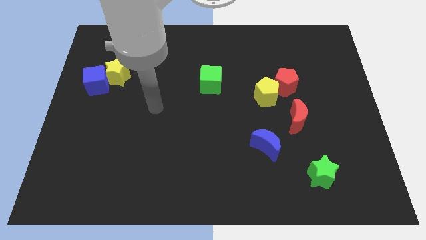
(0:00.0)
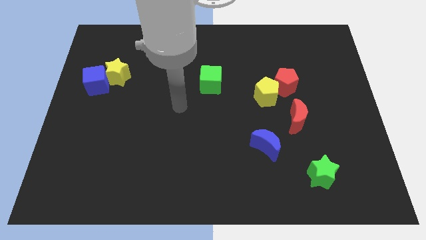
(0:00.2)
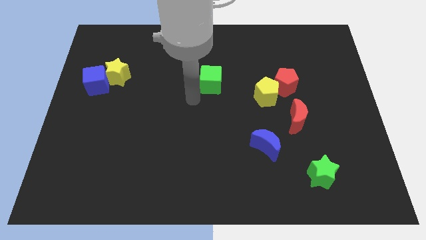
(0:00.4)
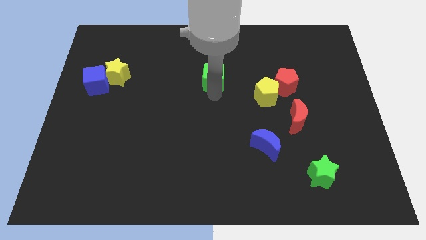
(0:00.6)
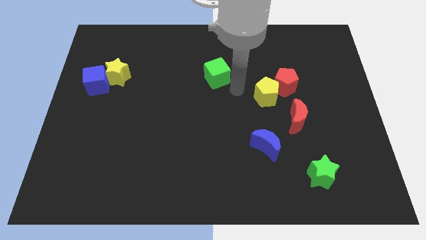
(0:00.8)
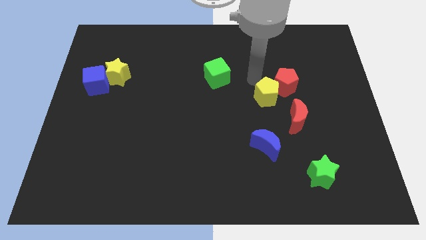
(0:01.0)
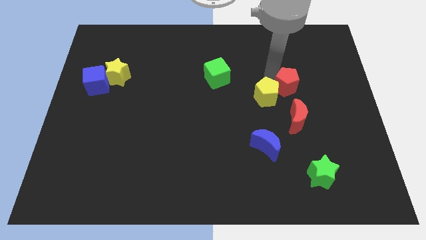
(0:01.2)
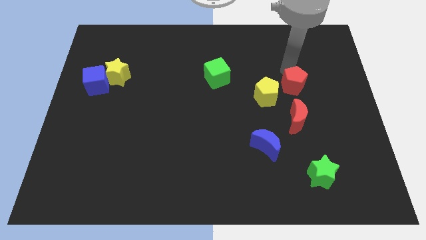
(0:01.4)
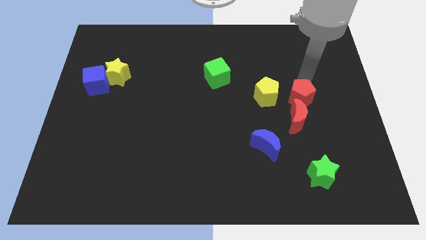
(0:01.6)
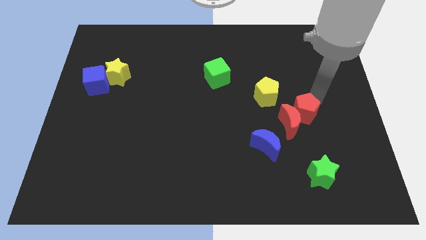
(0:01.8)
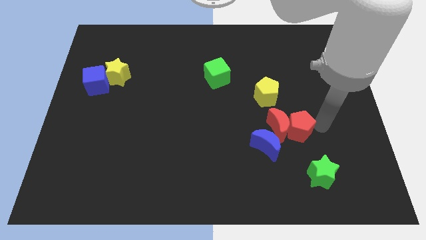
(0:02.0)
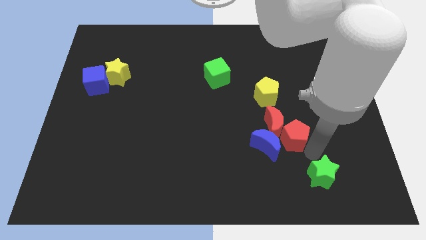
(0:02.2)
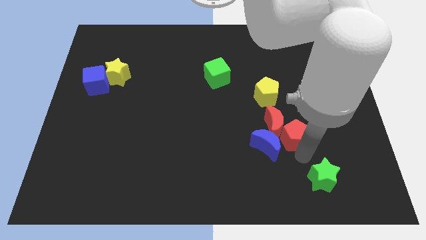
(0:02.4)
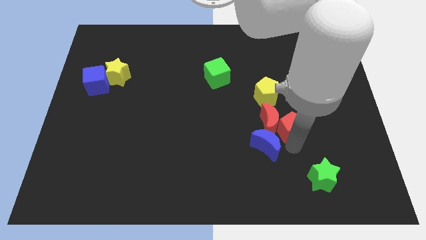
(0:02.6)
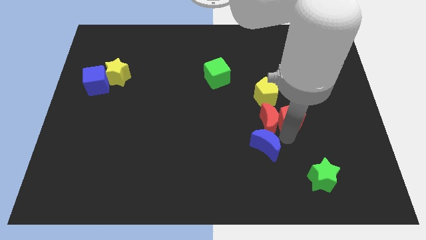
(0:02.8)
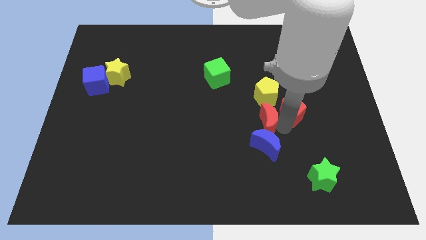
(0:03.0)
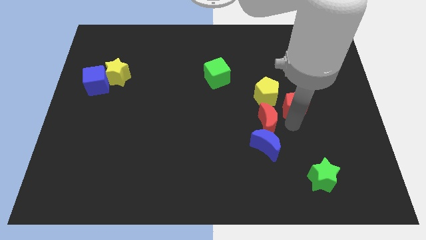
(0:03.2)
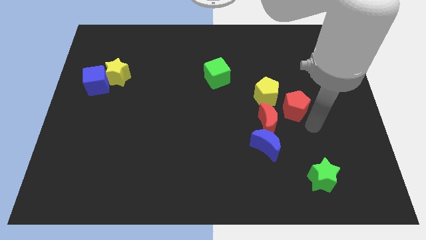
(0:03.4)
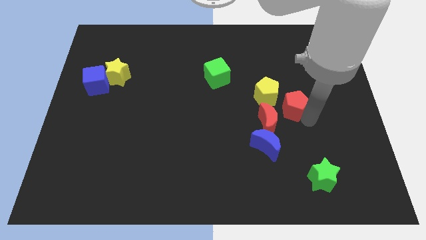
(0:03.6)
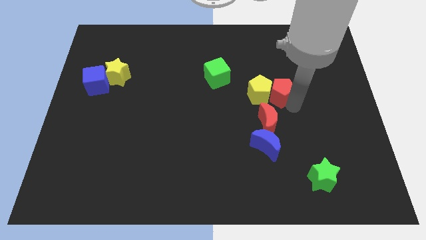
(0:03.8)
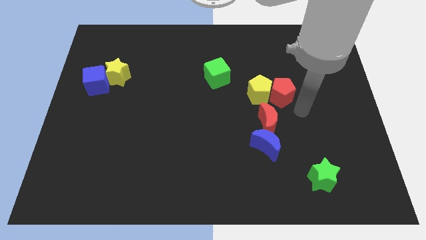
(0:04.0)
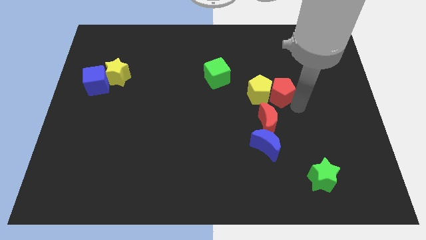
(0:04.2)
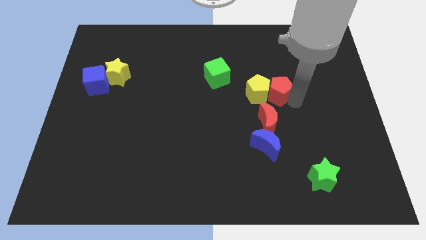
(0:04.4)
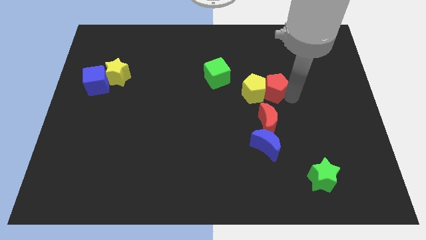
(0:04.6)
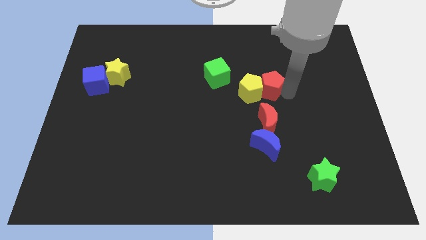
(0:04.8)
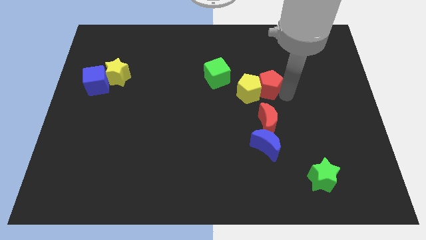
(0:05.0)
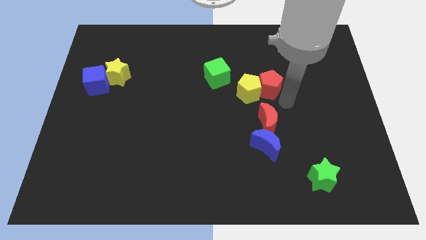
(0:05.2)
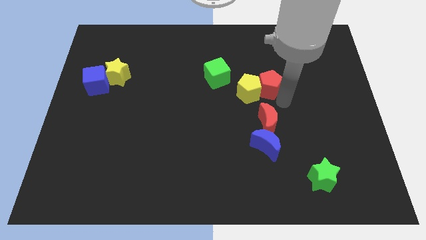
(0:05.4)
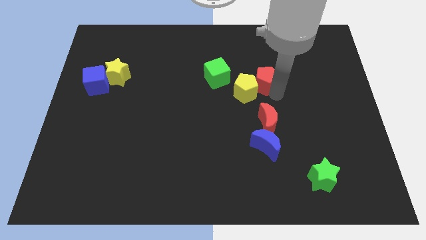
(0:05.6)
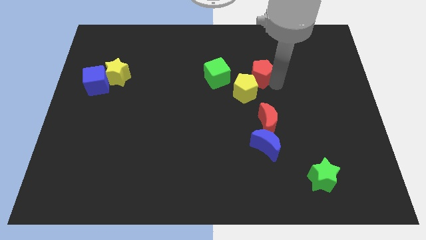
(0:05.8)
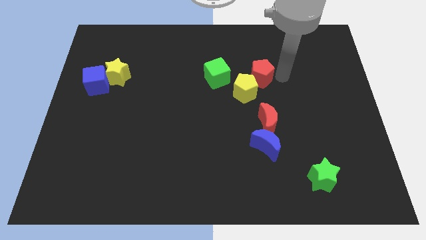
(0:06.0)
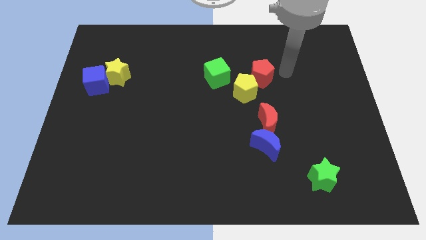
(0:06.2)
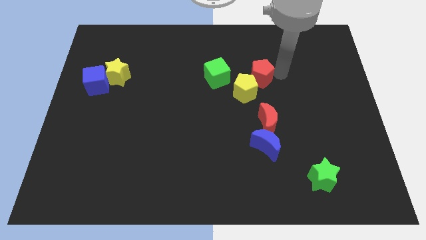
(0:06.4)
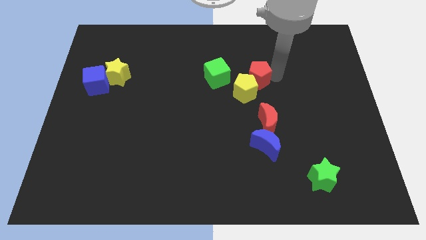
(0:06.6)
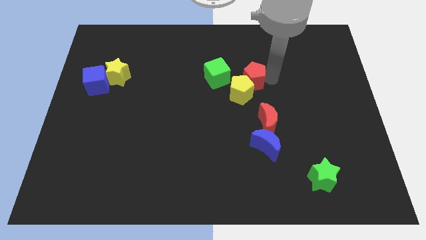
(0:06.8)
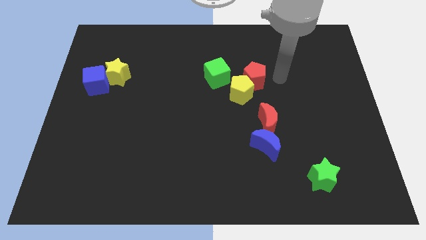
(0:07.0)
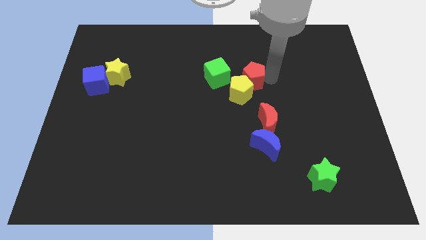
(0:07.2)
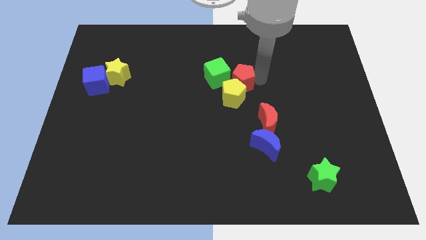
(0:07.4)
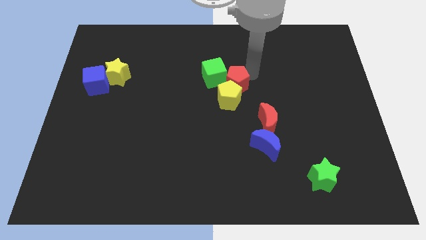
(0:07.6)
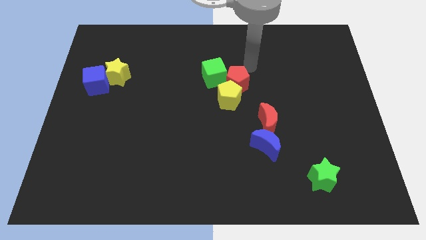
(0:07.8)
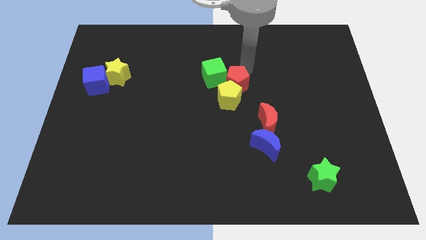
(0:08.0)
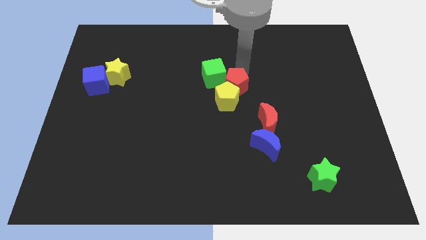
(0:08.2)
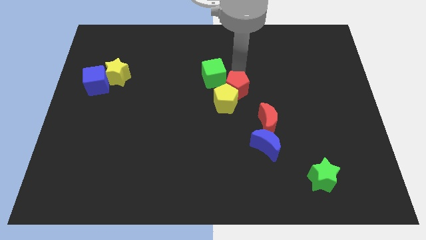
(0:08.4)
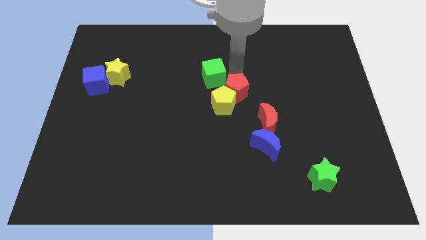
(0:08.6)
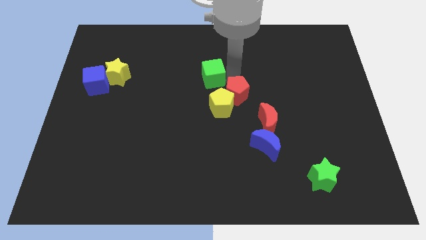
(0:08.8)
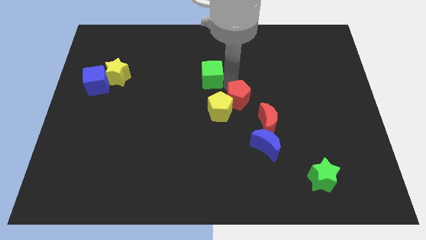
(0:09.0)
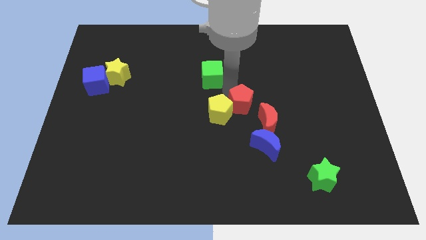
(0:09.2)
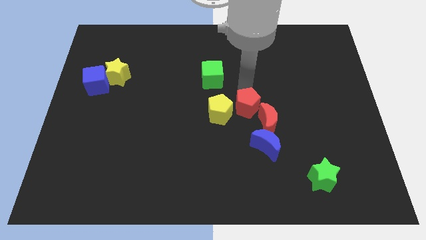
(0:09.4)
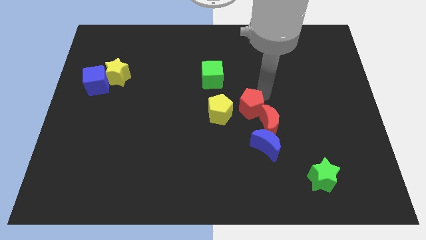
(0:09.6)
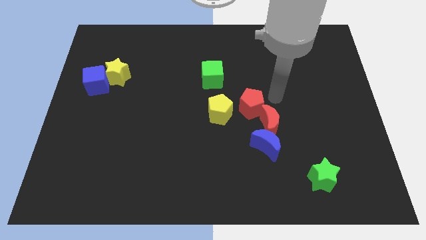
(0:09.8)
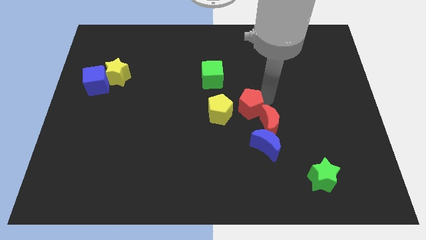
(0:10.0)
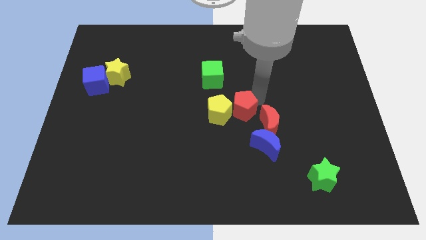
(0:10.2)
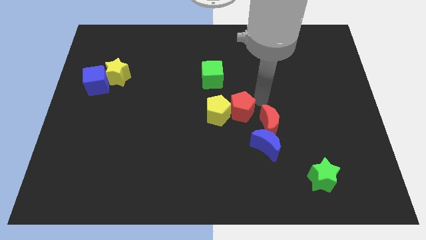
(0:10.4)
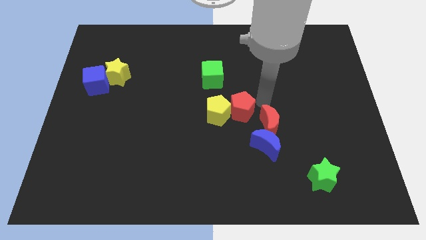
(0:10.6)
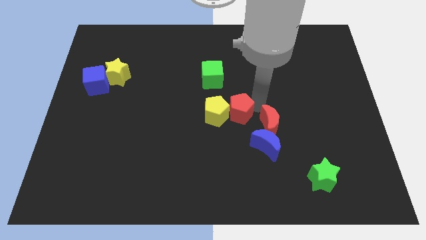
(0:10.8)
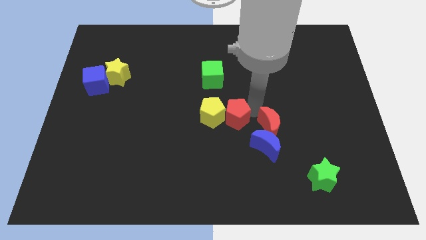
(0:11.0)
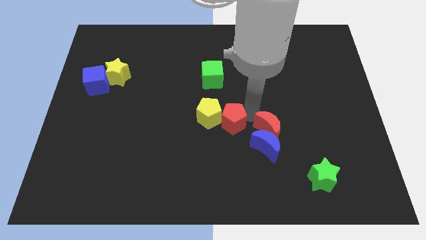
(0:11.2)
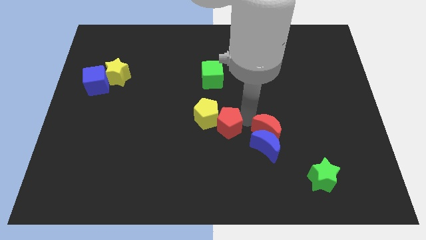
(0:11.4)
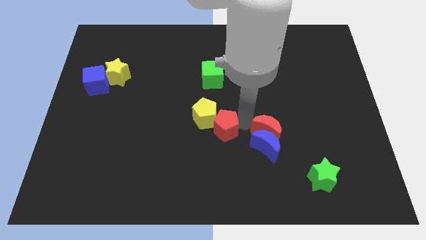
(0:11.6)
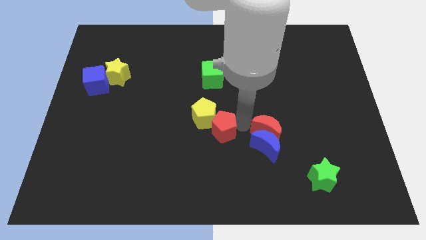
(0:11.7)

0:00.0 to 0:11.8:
slide the red pentagon downwards and to the left

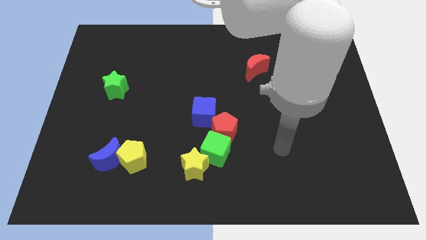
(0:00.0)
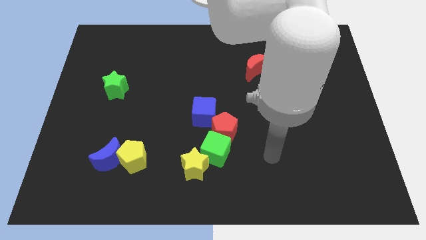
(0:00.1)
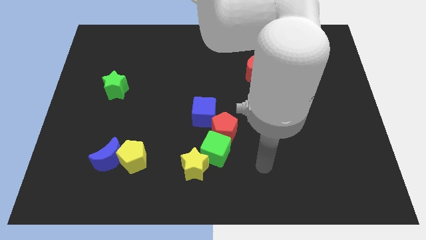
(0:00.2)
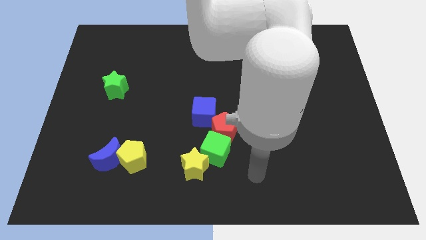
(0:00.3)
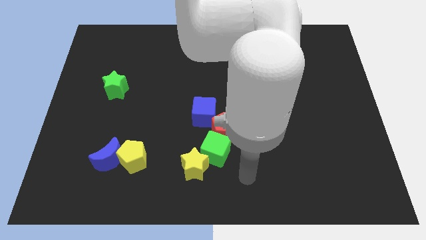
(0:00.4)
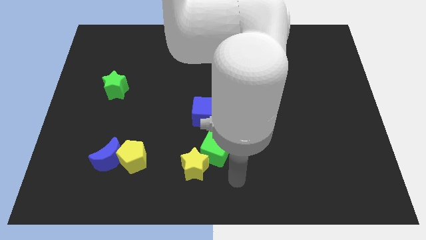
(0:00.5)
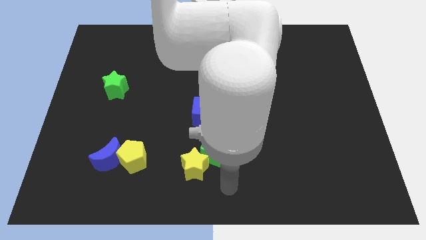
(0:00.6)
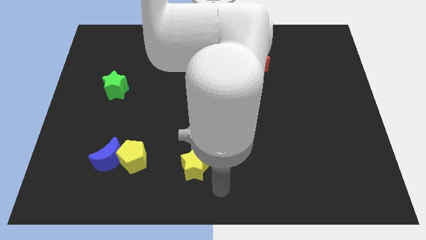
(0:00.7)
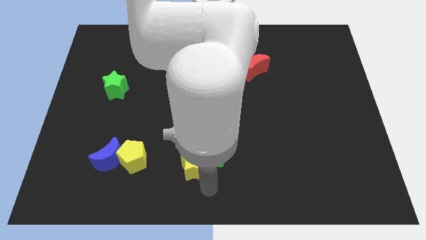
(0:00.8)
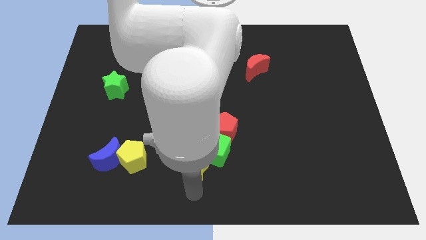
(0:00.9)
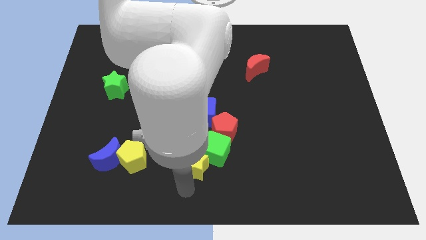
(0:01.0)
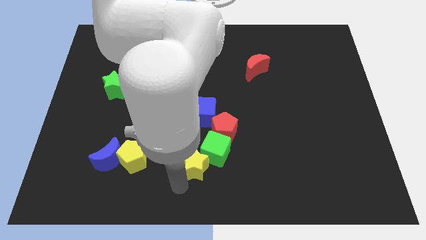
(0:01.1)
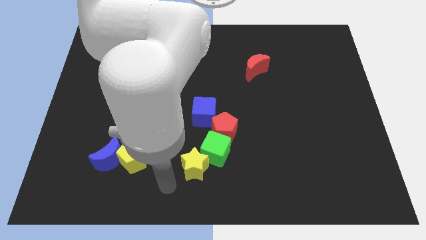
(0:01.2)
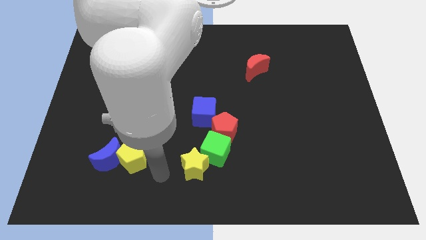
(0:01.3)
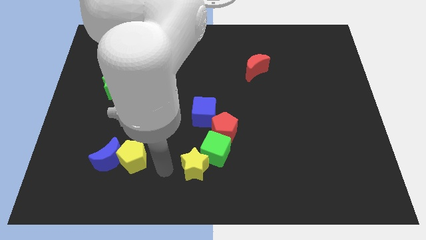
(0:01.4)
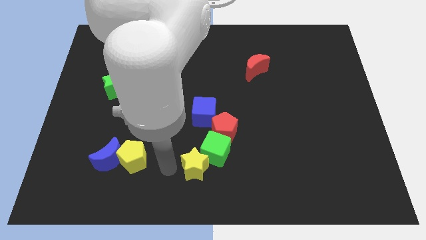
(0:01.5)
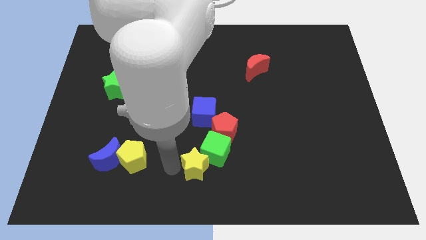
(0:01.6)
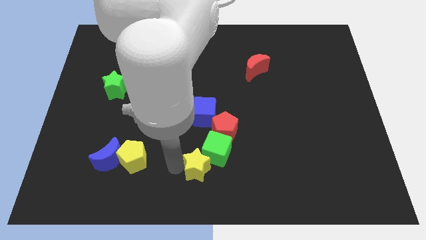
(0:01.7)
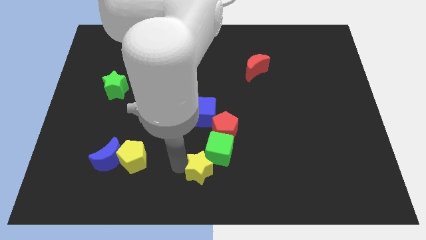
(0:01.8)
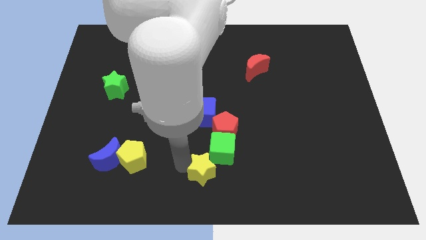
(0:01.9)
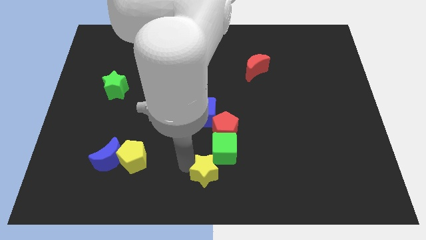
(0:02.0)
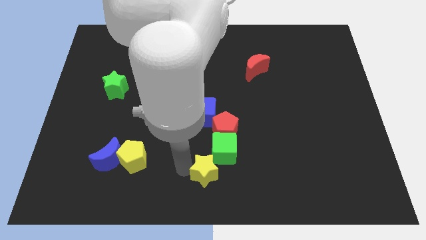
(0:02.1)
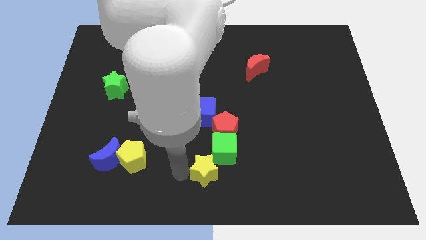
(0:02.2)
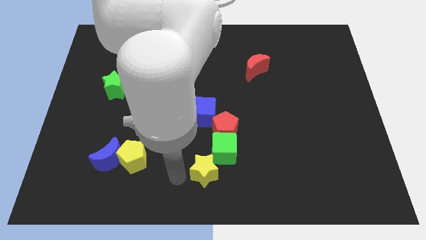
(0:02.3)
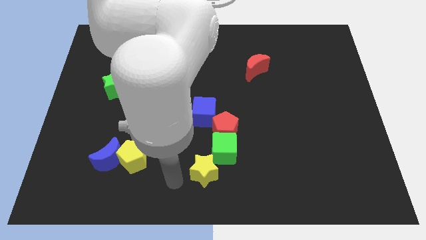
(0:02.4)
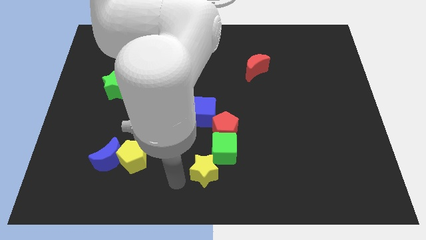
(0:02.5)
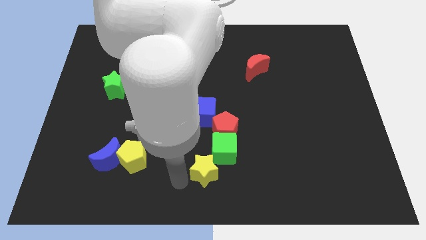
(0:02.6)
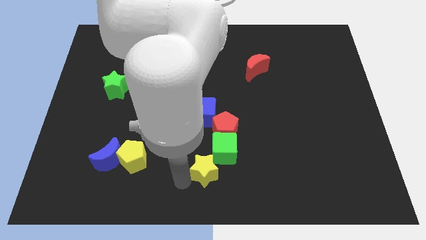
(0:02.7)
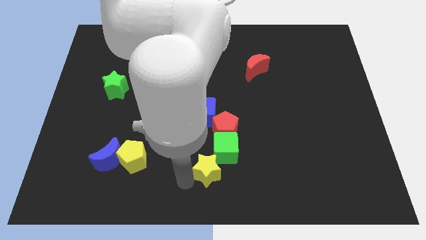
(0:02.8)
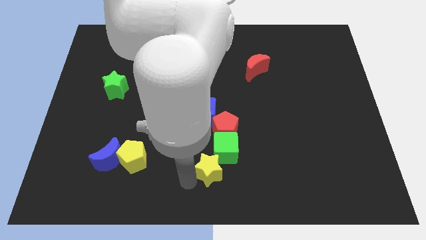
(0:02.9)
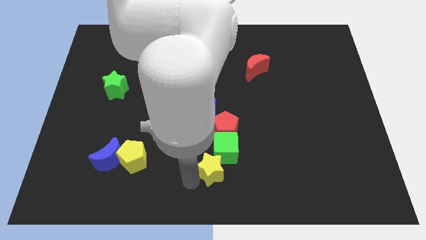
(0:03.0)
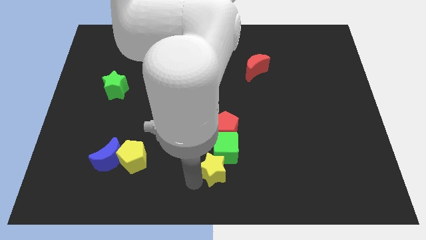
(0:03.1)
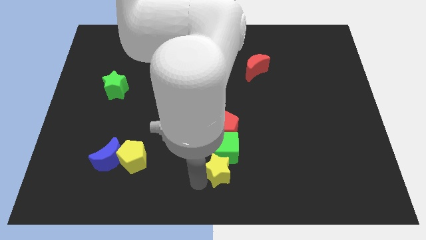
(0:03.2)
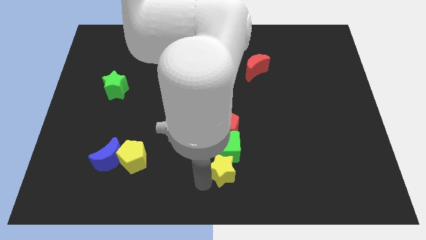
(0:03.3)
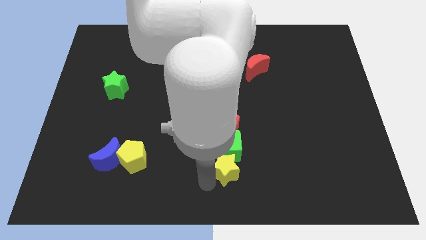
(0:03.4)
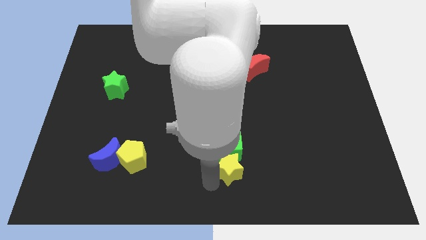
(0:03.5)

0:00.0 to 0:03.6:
slightly push the yellow star right
